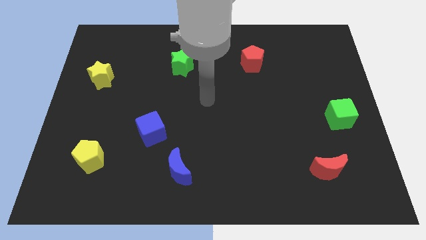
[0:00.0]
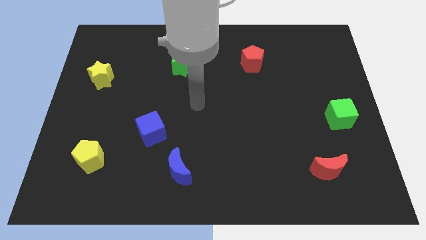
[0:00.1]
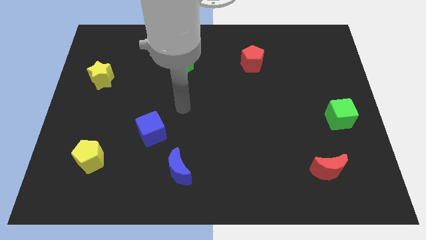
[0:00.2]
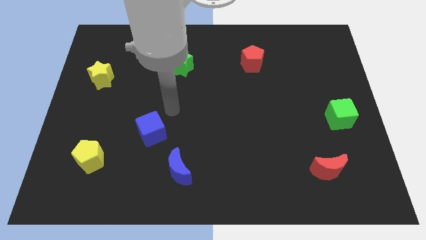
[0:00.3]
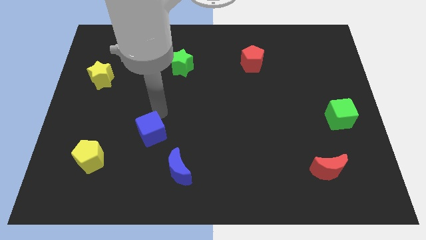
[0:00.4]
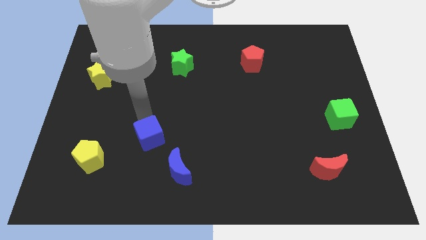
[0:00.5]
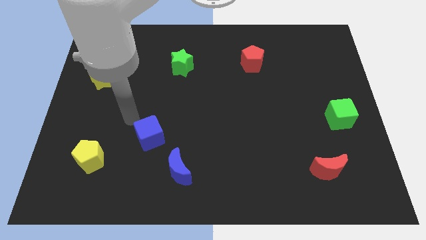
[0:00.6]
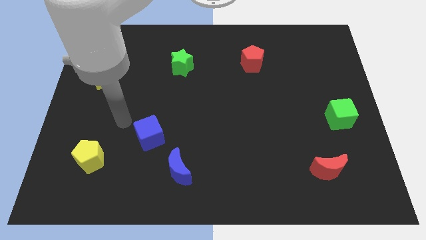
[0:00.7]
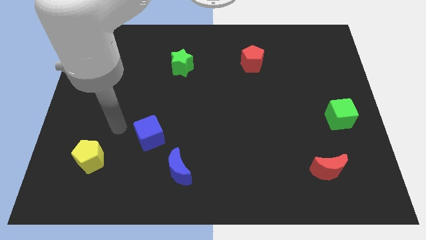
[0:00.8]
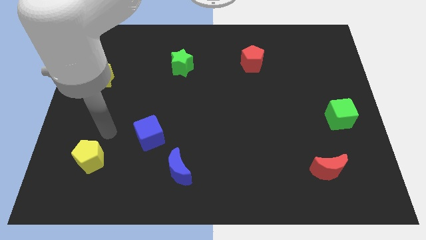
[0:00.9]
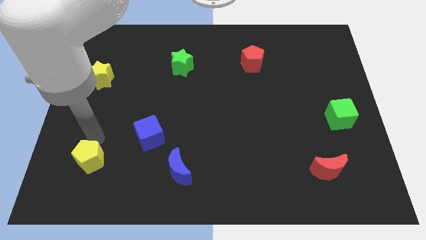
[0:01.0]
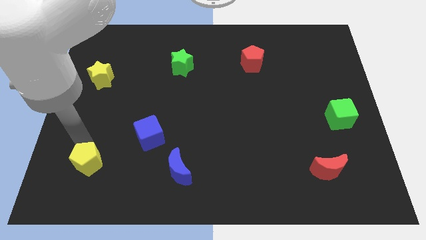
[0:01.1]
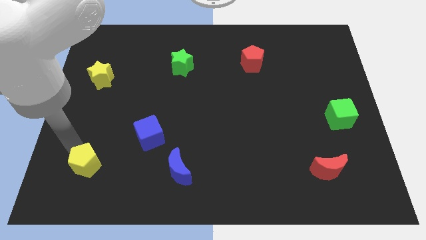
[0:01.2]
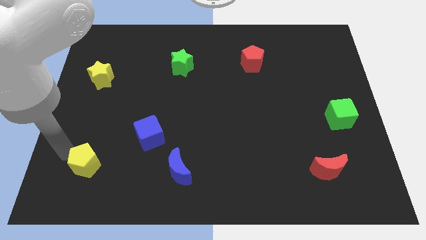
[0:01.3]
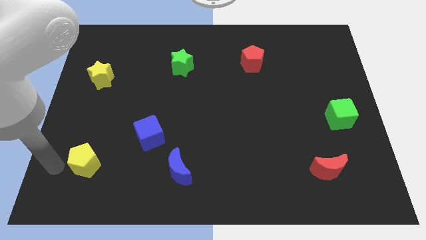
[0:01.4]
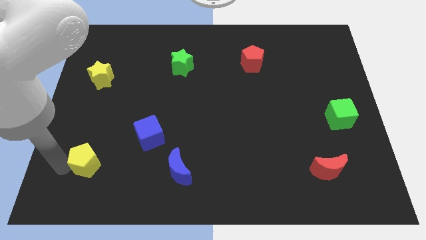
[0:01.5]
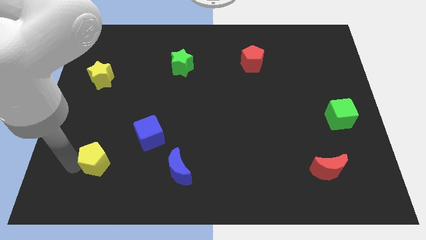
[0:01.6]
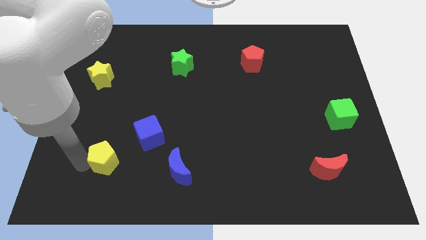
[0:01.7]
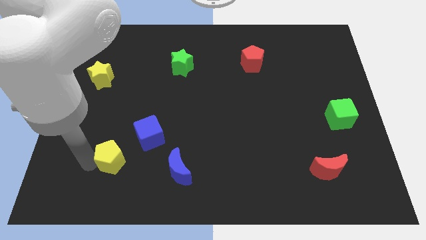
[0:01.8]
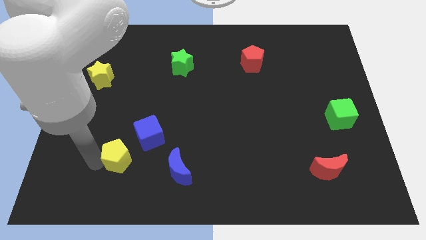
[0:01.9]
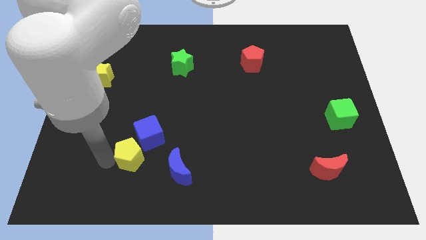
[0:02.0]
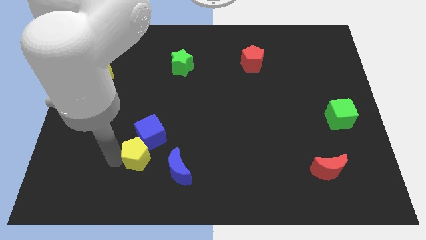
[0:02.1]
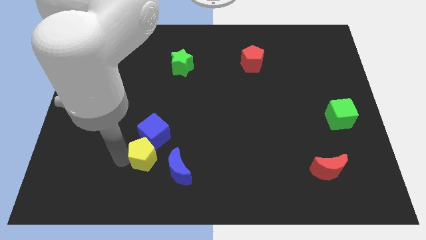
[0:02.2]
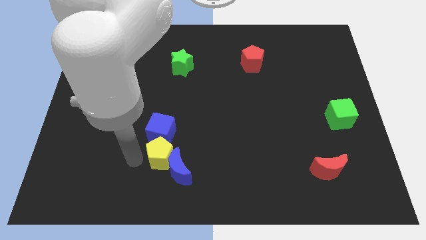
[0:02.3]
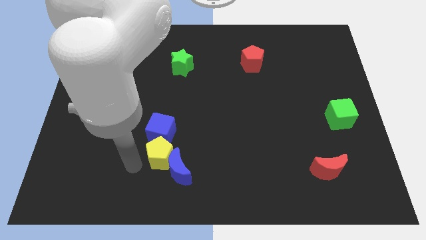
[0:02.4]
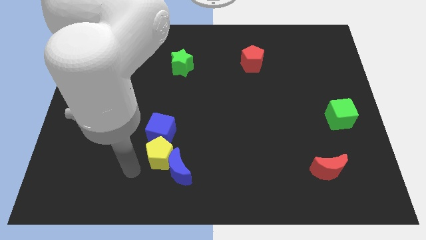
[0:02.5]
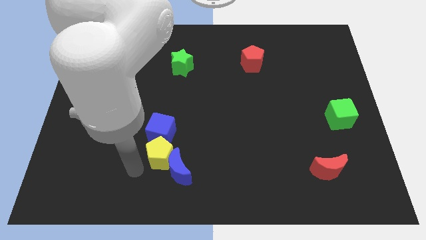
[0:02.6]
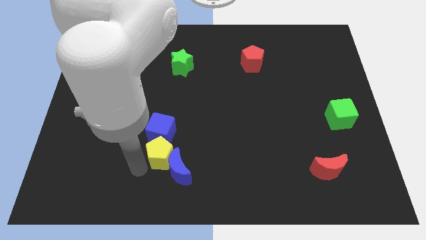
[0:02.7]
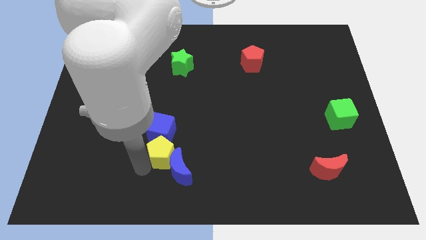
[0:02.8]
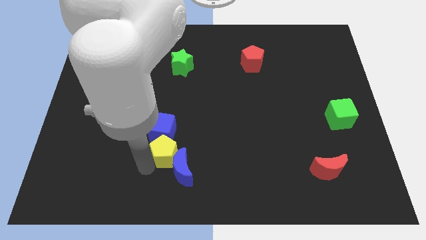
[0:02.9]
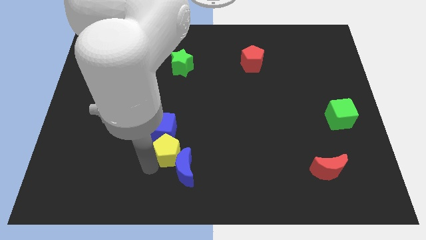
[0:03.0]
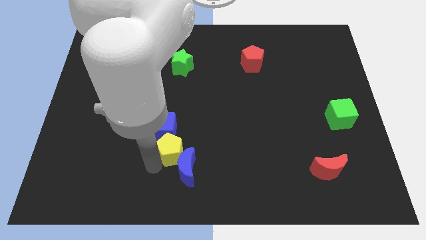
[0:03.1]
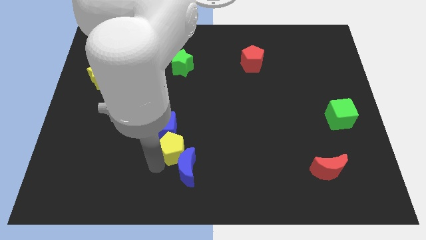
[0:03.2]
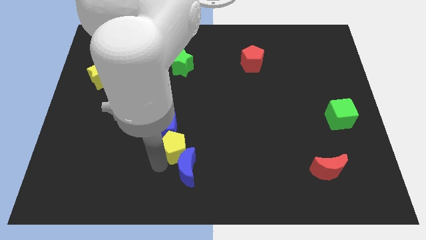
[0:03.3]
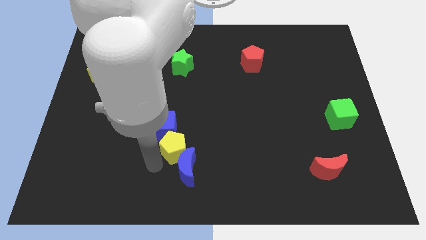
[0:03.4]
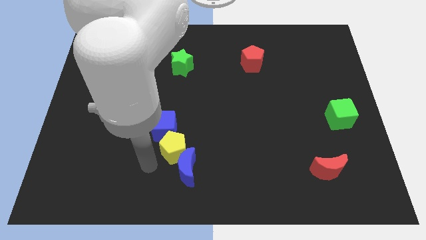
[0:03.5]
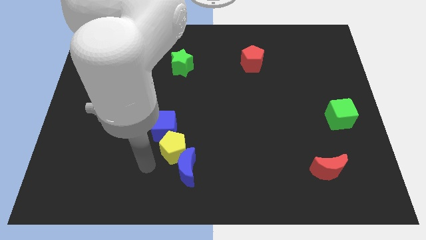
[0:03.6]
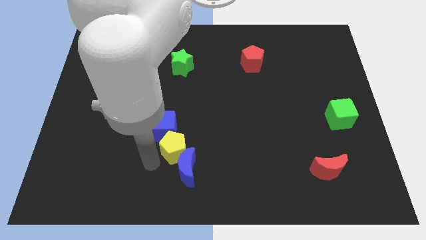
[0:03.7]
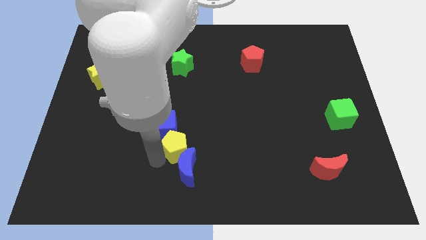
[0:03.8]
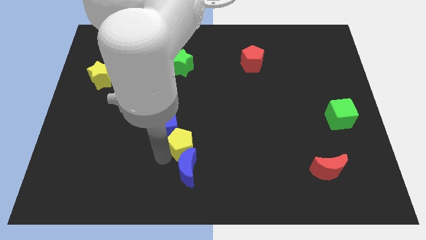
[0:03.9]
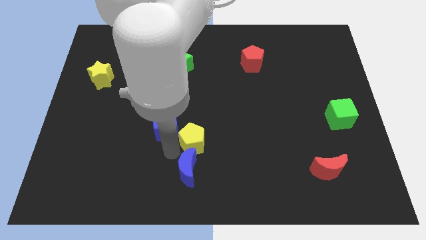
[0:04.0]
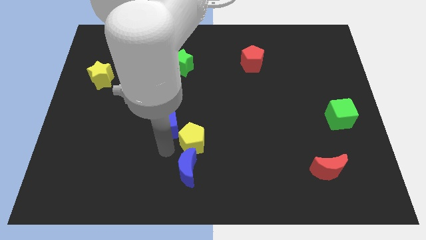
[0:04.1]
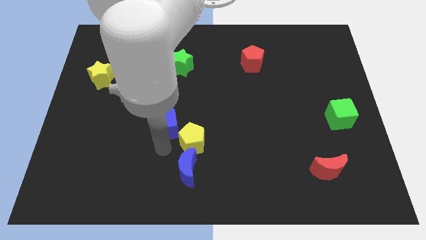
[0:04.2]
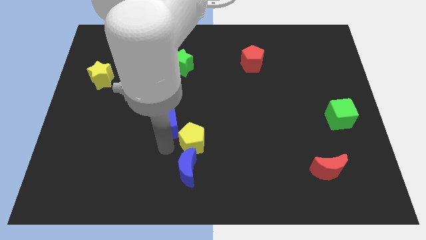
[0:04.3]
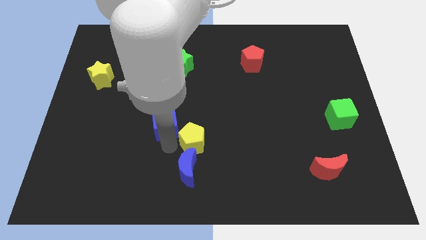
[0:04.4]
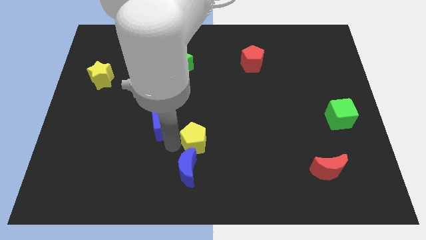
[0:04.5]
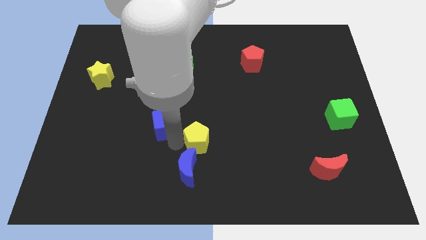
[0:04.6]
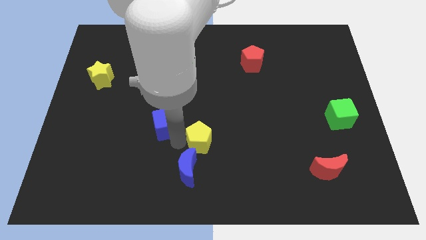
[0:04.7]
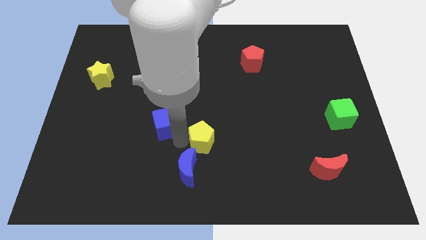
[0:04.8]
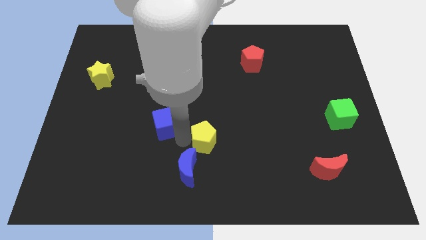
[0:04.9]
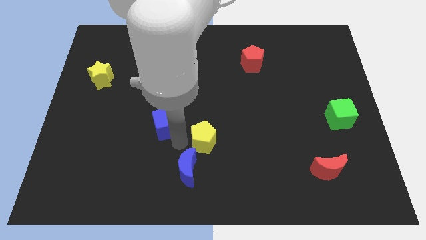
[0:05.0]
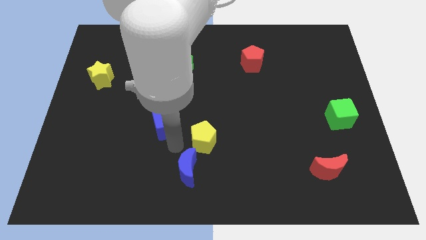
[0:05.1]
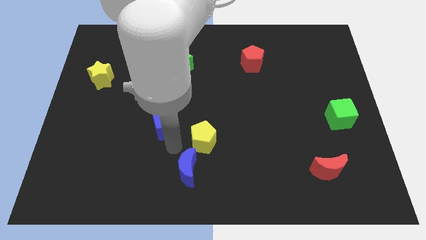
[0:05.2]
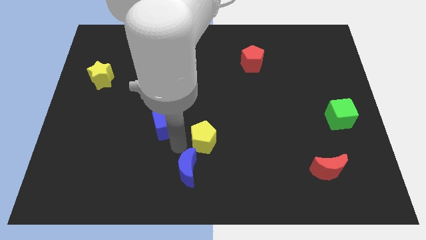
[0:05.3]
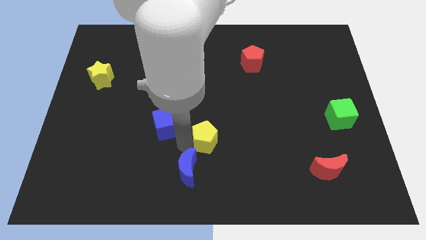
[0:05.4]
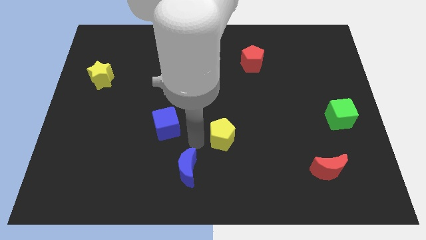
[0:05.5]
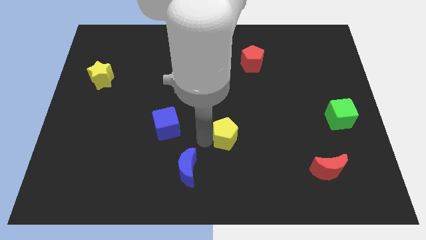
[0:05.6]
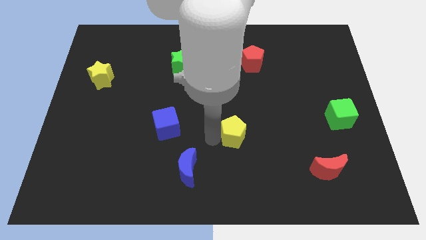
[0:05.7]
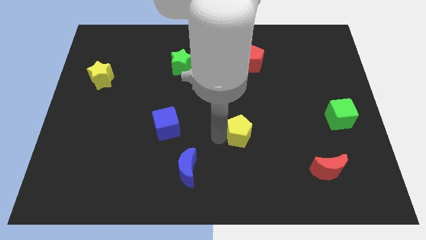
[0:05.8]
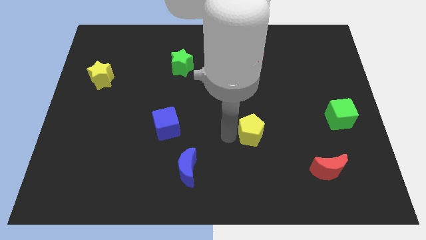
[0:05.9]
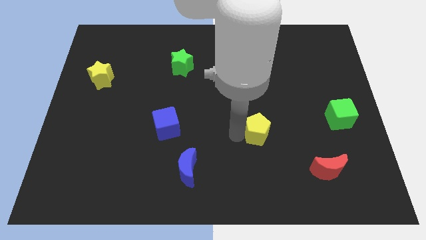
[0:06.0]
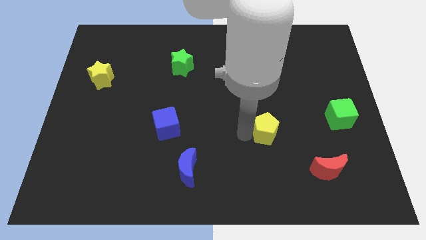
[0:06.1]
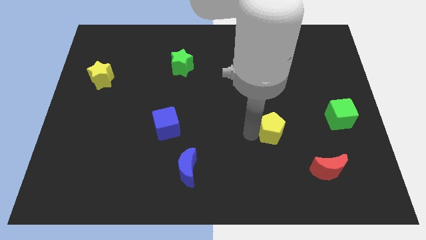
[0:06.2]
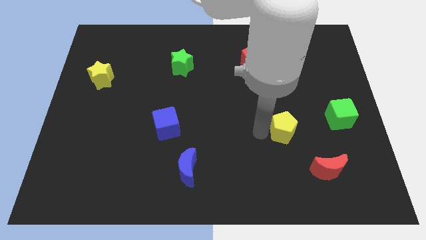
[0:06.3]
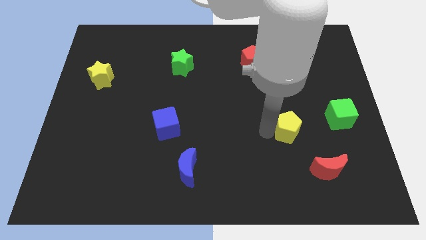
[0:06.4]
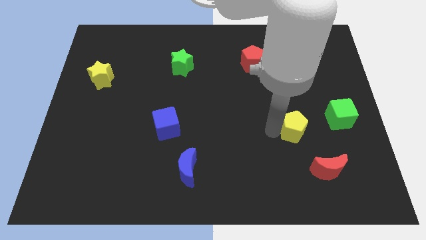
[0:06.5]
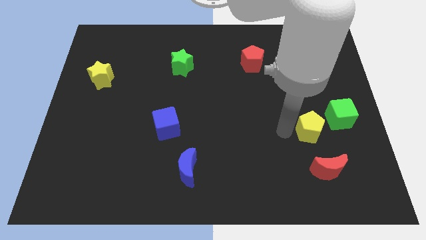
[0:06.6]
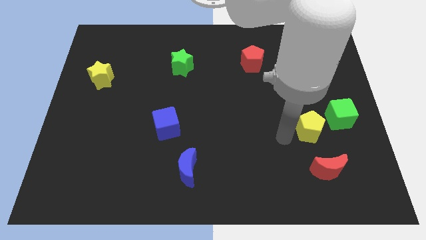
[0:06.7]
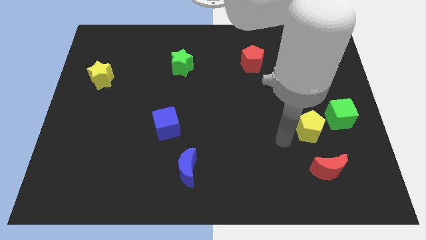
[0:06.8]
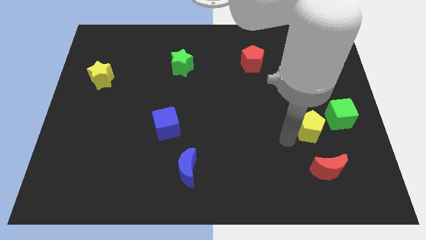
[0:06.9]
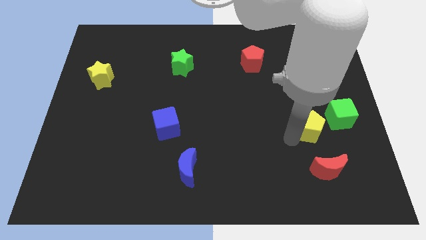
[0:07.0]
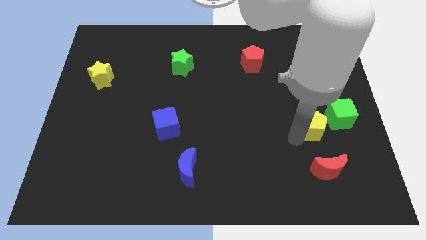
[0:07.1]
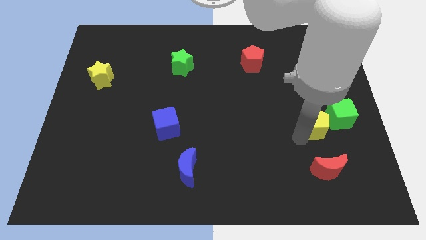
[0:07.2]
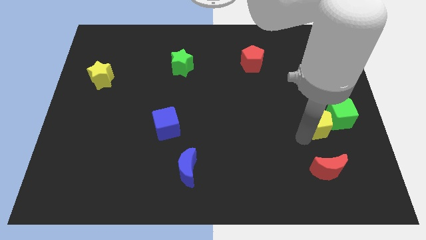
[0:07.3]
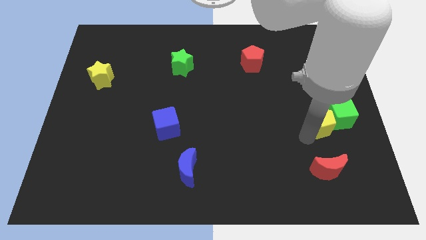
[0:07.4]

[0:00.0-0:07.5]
move the yellow pentagon next to the green cube
